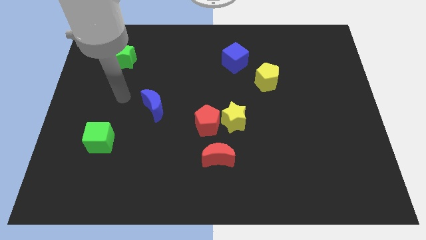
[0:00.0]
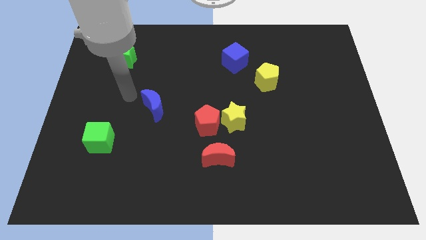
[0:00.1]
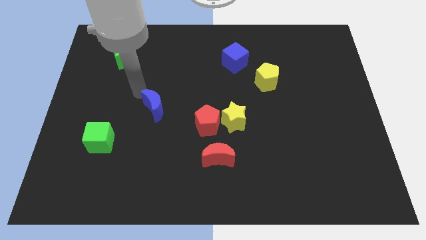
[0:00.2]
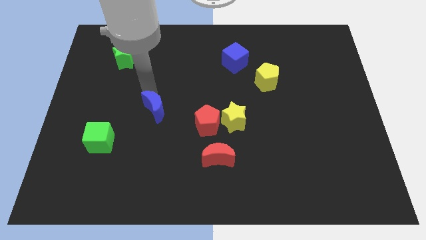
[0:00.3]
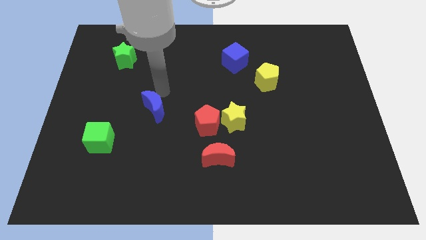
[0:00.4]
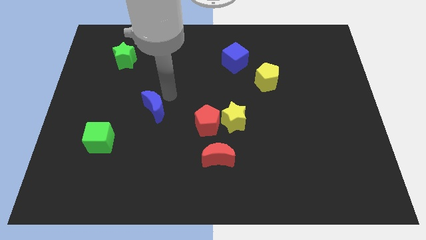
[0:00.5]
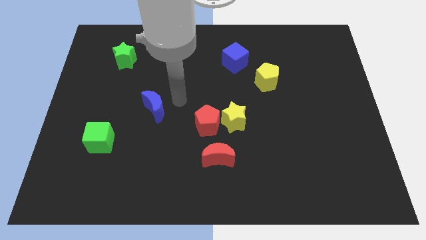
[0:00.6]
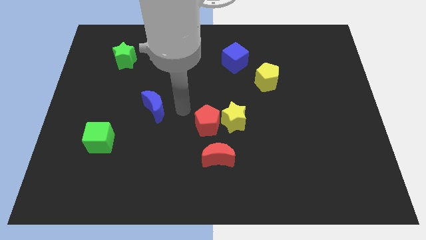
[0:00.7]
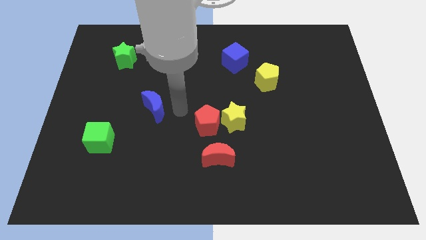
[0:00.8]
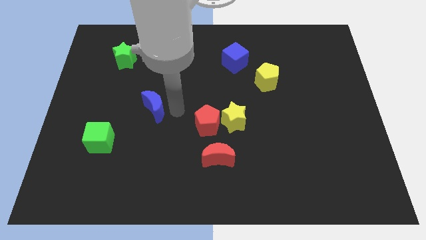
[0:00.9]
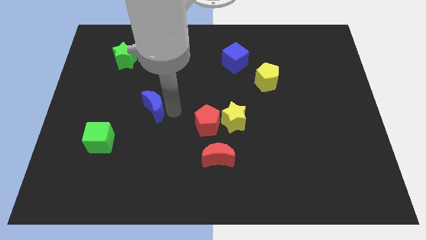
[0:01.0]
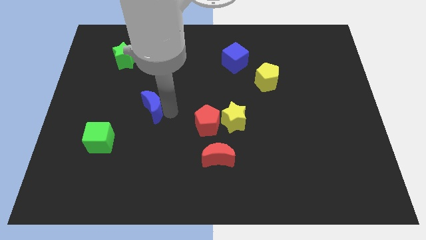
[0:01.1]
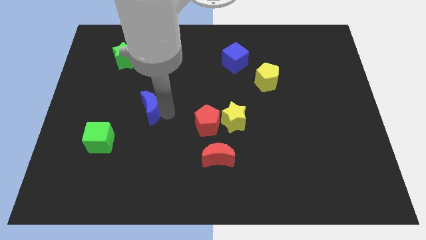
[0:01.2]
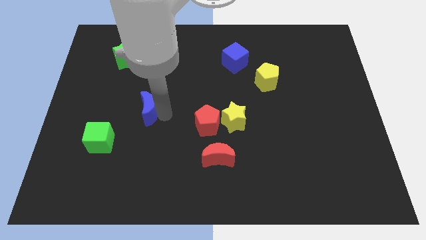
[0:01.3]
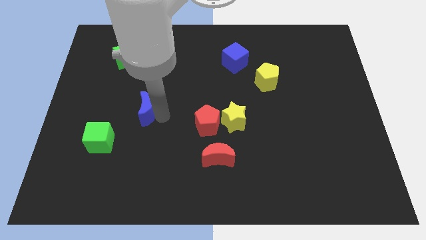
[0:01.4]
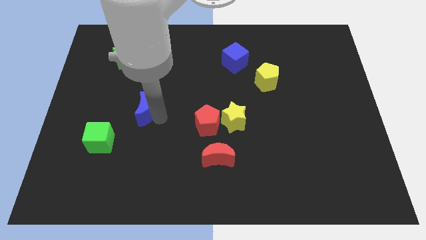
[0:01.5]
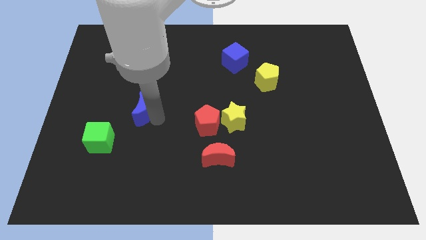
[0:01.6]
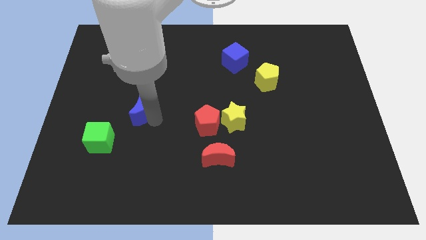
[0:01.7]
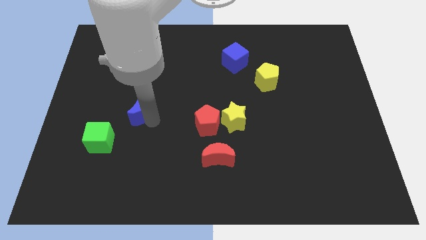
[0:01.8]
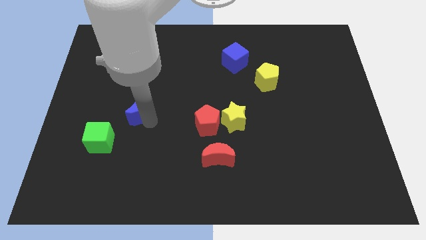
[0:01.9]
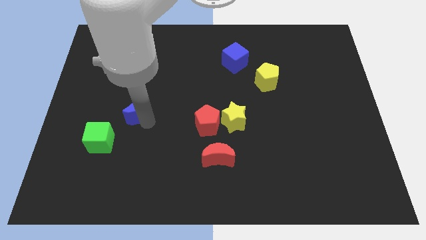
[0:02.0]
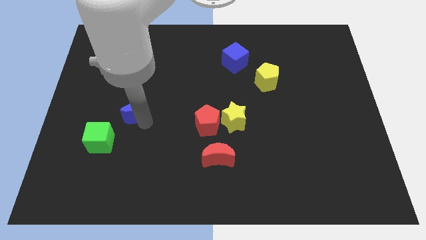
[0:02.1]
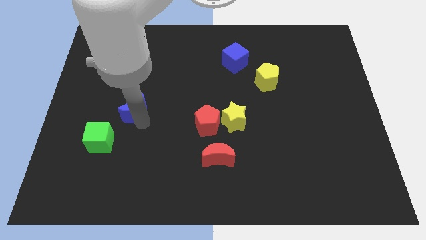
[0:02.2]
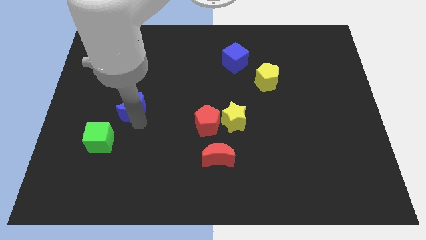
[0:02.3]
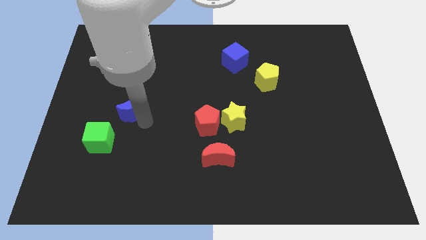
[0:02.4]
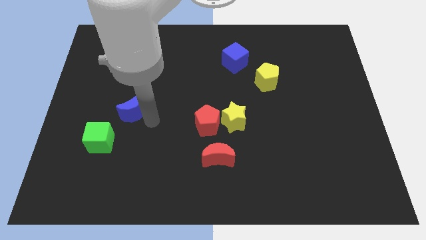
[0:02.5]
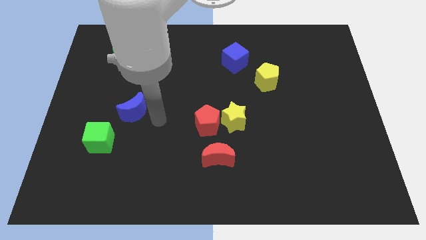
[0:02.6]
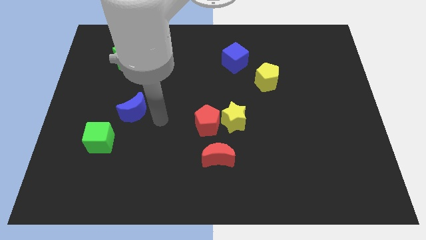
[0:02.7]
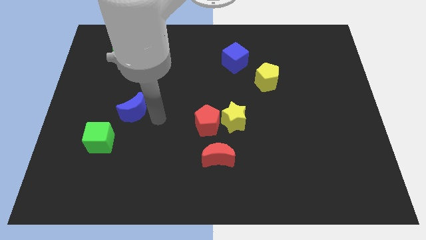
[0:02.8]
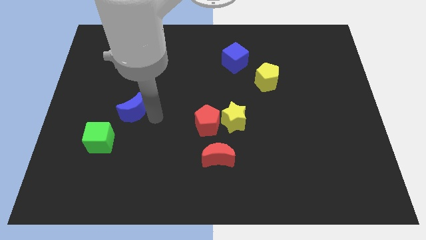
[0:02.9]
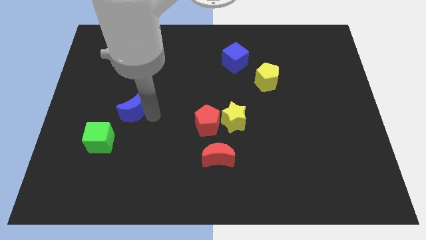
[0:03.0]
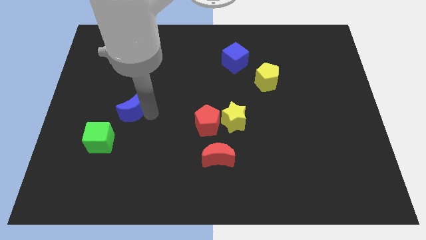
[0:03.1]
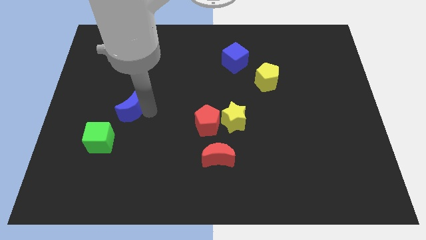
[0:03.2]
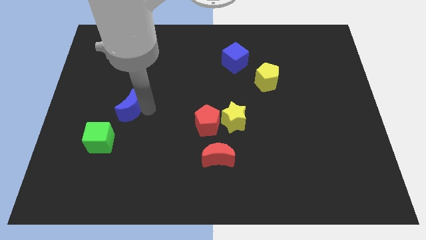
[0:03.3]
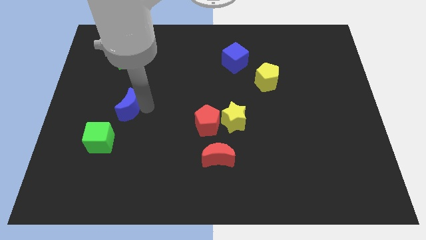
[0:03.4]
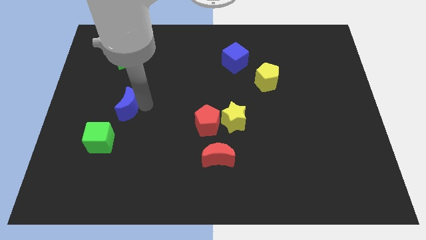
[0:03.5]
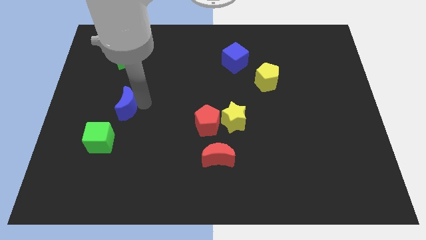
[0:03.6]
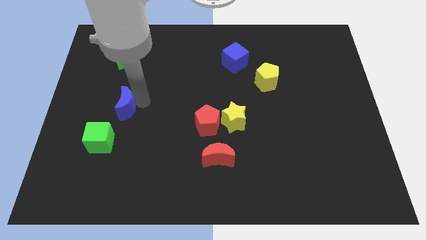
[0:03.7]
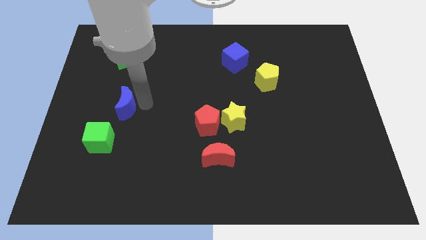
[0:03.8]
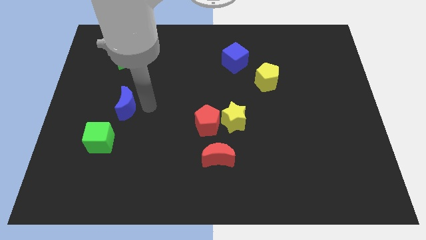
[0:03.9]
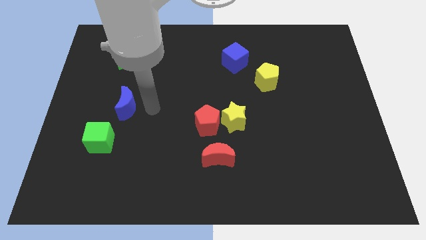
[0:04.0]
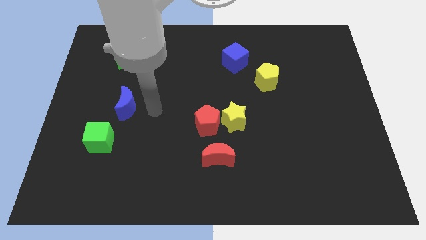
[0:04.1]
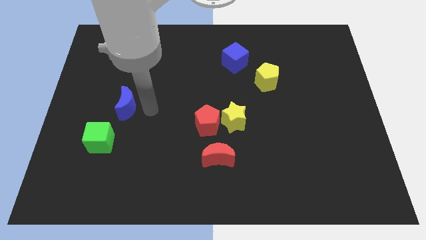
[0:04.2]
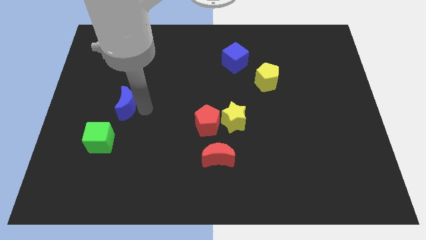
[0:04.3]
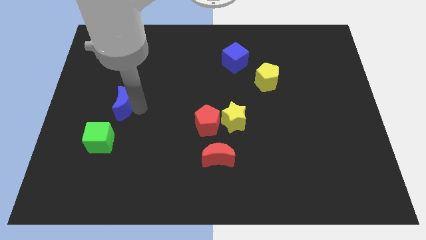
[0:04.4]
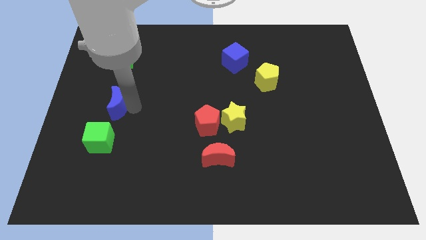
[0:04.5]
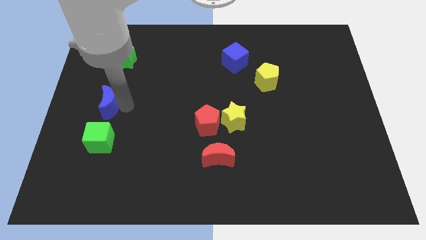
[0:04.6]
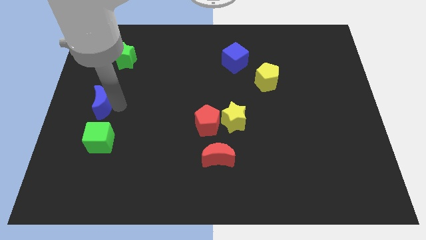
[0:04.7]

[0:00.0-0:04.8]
move the blue moon to the center left

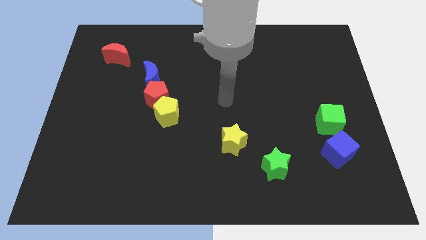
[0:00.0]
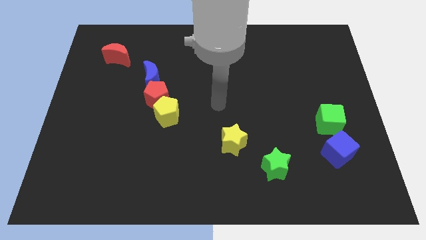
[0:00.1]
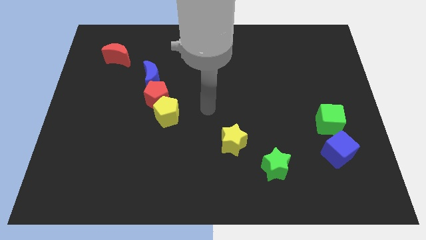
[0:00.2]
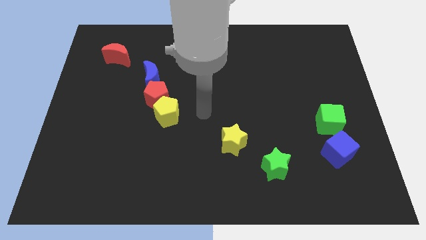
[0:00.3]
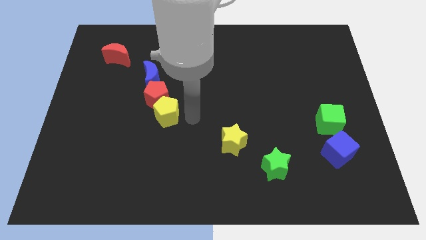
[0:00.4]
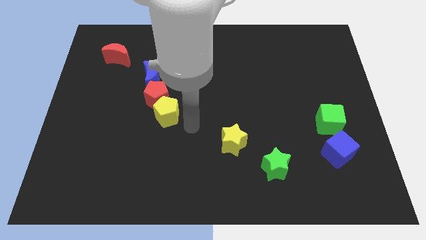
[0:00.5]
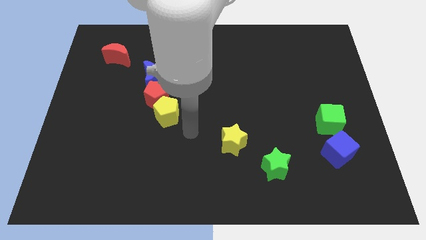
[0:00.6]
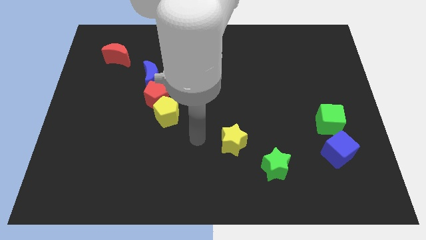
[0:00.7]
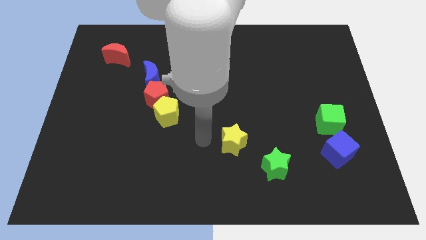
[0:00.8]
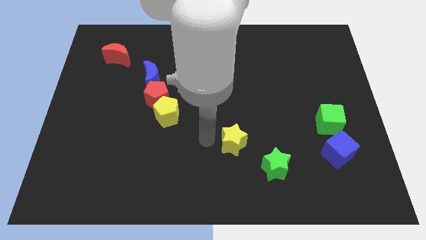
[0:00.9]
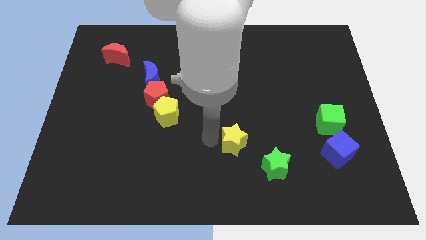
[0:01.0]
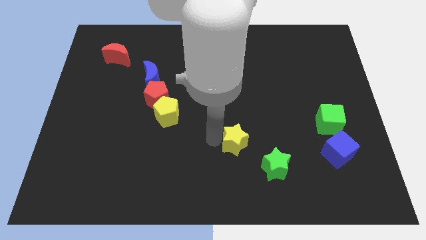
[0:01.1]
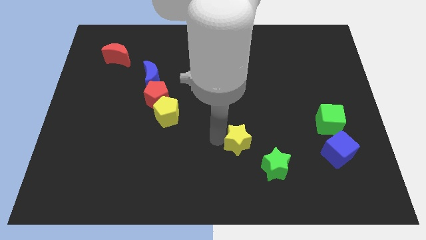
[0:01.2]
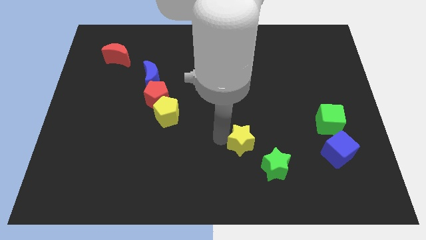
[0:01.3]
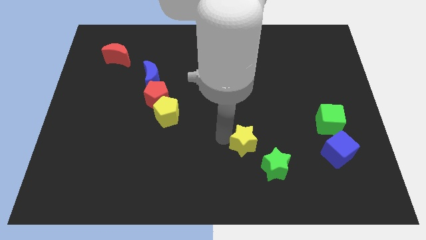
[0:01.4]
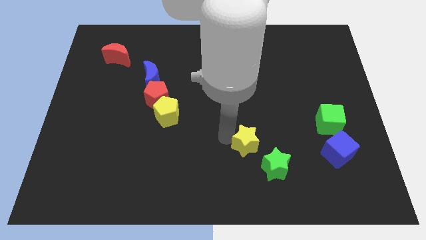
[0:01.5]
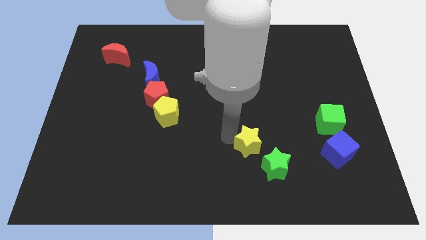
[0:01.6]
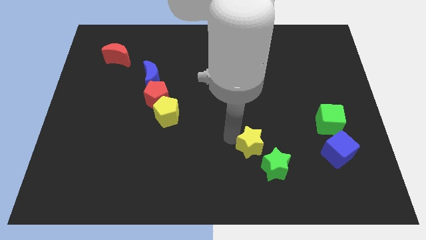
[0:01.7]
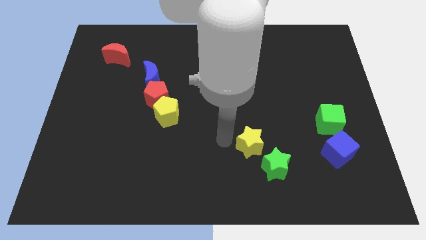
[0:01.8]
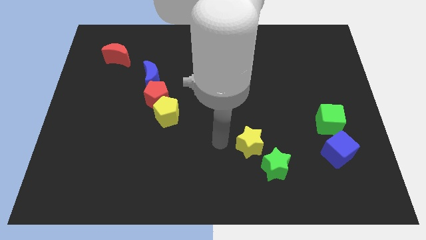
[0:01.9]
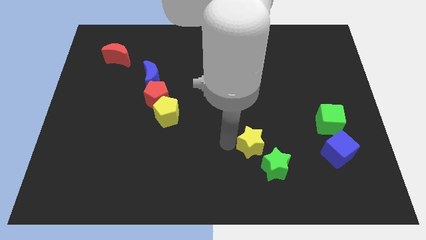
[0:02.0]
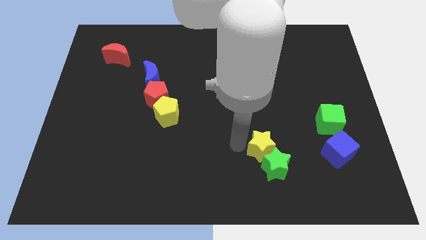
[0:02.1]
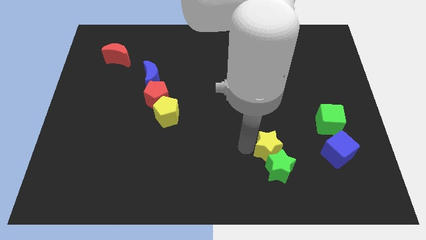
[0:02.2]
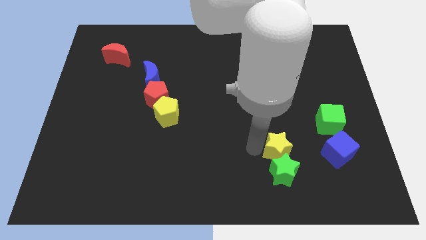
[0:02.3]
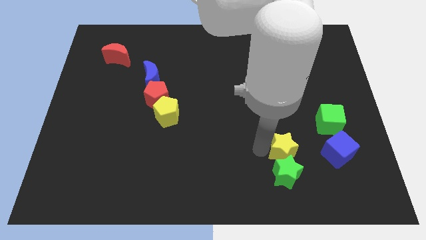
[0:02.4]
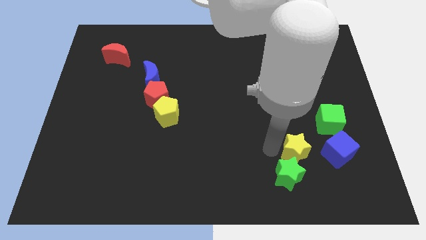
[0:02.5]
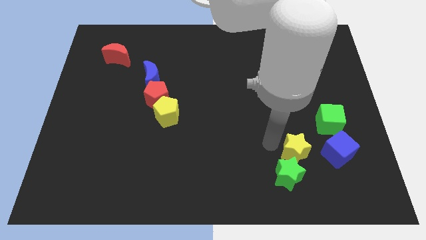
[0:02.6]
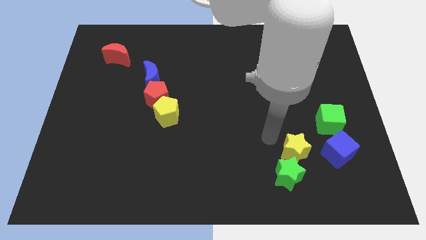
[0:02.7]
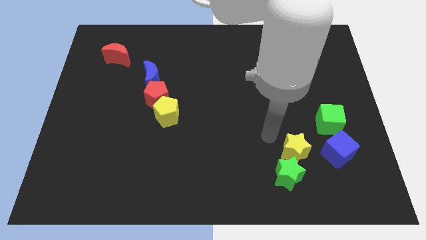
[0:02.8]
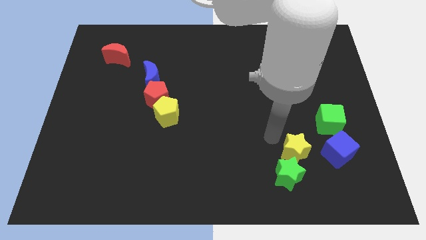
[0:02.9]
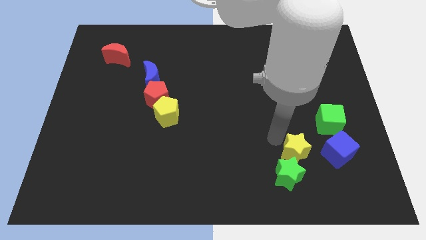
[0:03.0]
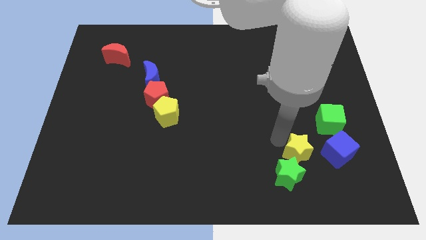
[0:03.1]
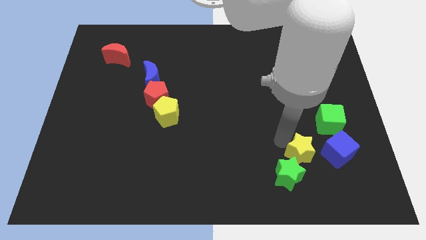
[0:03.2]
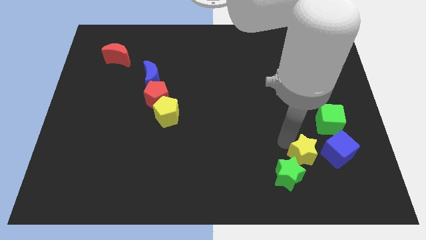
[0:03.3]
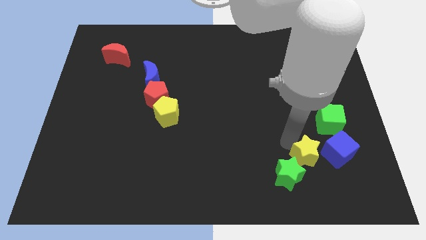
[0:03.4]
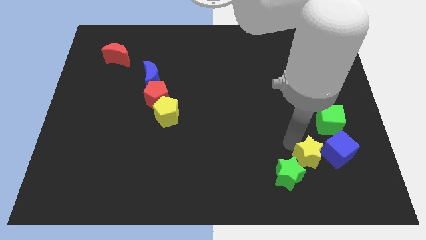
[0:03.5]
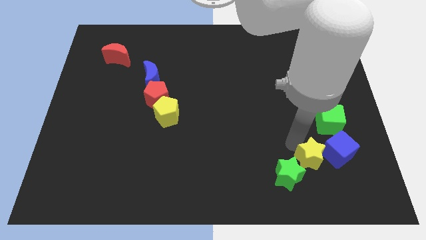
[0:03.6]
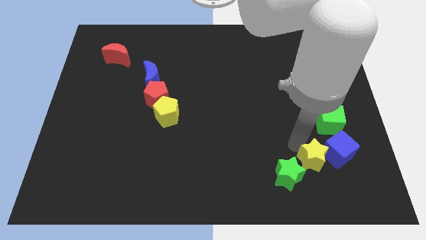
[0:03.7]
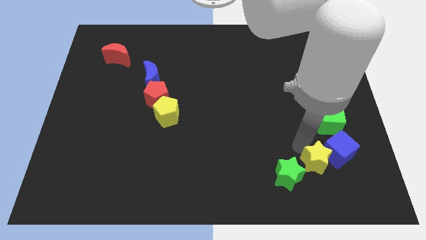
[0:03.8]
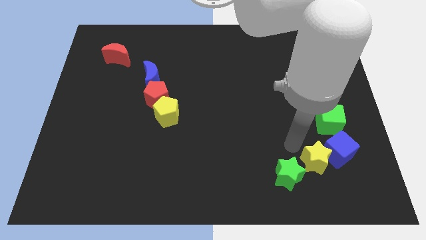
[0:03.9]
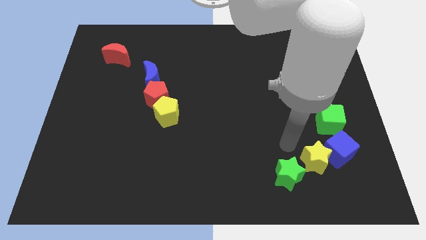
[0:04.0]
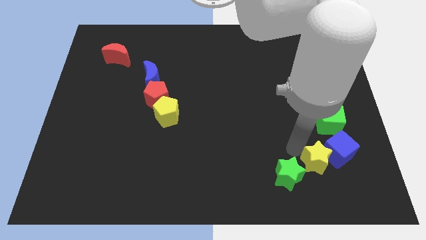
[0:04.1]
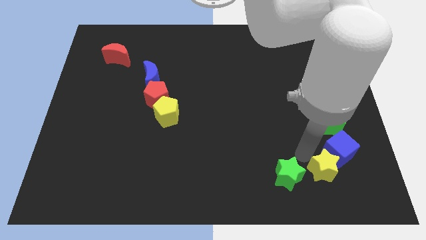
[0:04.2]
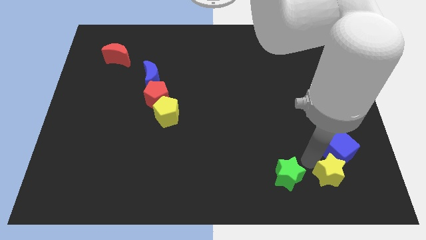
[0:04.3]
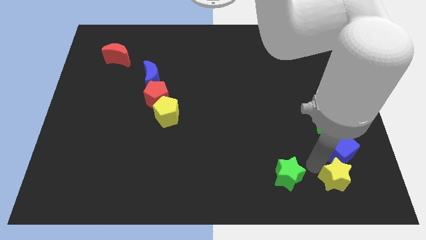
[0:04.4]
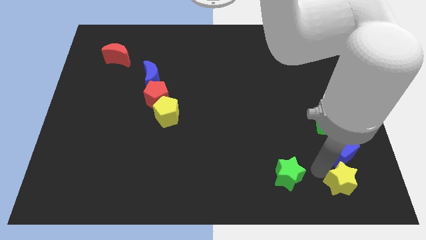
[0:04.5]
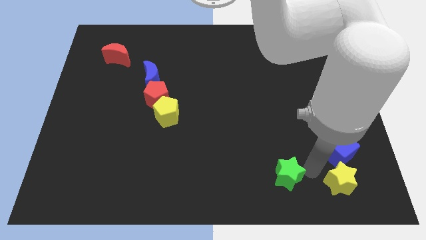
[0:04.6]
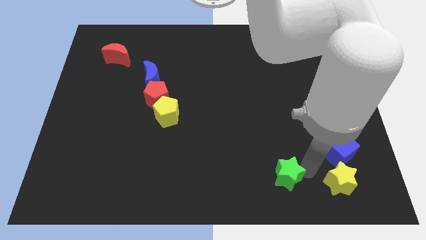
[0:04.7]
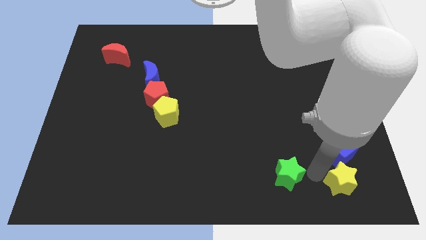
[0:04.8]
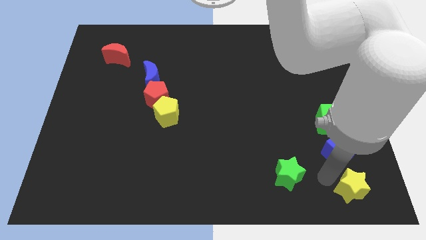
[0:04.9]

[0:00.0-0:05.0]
slide the yellow star to the bottom right
